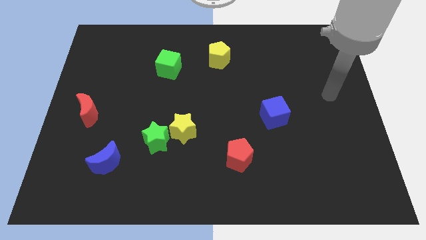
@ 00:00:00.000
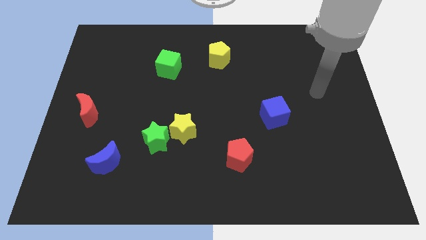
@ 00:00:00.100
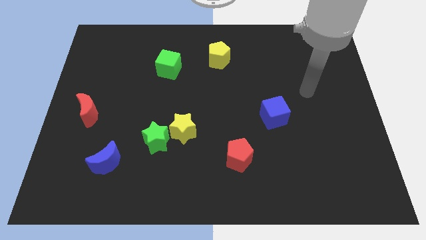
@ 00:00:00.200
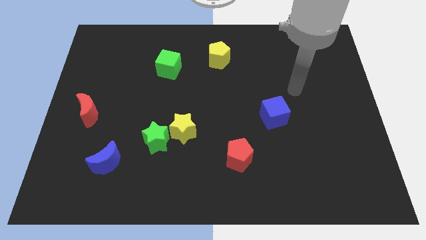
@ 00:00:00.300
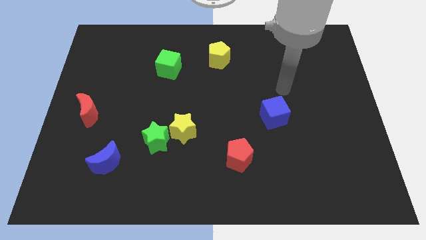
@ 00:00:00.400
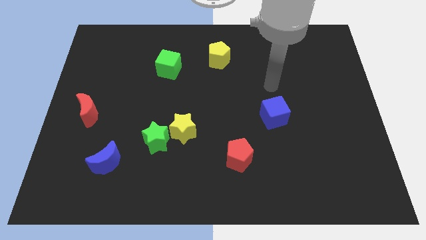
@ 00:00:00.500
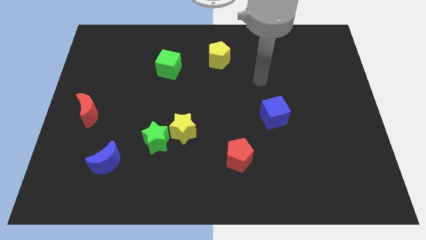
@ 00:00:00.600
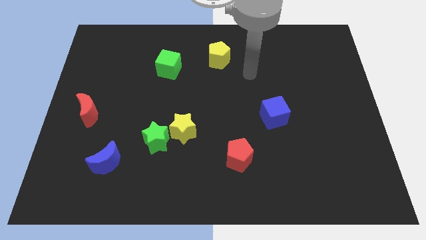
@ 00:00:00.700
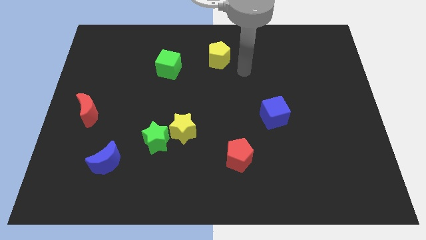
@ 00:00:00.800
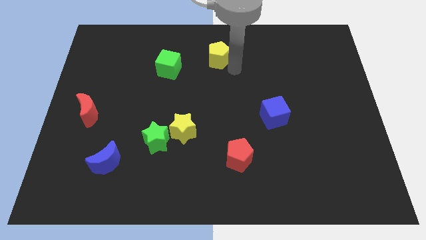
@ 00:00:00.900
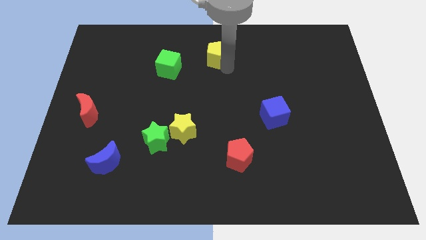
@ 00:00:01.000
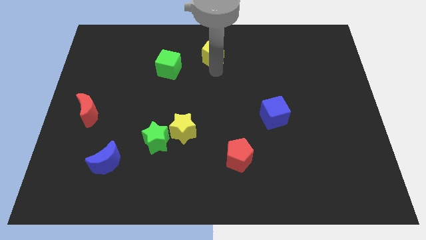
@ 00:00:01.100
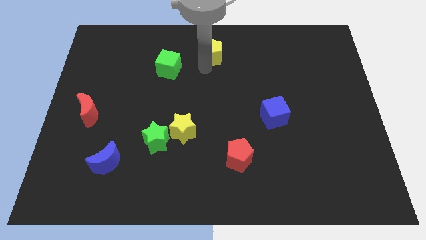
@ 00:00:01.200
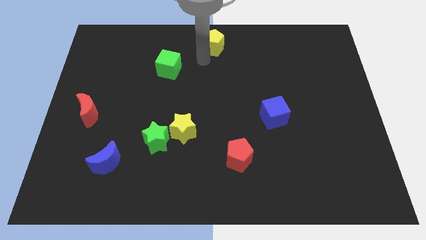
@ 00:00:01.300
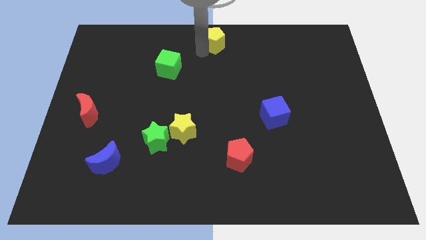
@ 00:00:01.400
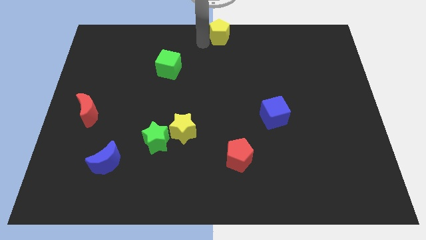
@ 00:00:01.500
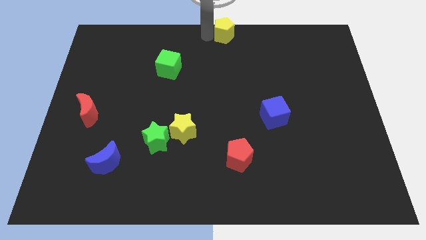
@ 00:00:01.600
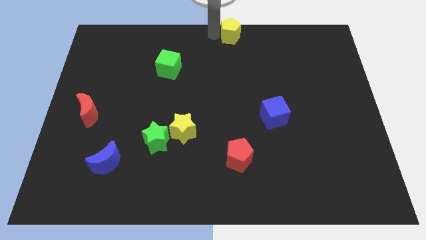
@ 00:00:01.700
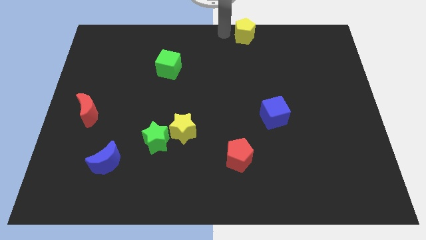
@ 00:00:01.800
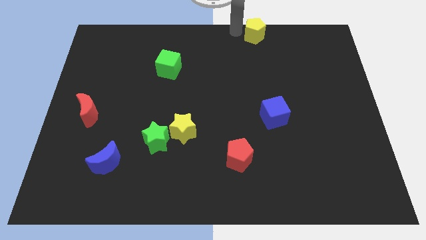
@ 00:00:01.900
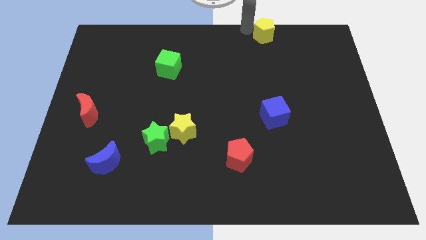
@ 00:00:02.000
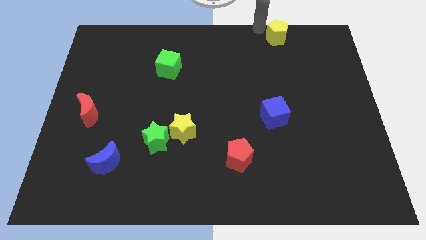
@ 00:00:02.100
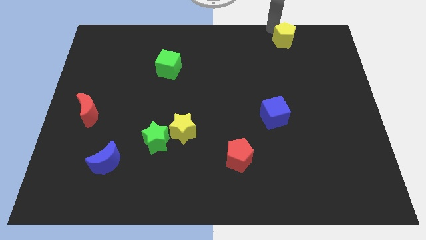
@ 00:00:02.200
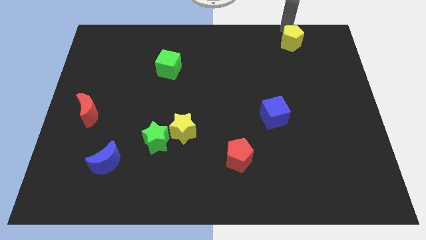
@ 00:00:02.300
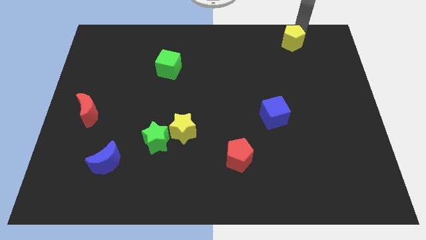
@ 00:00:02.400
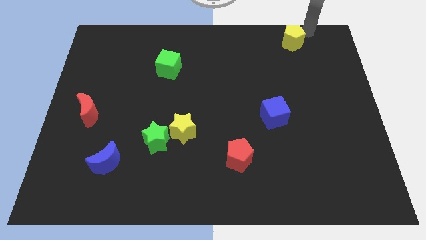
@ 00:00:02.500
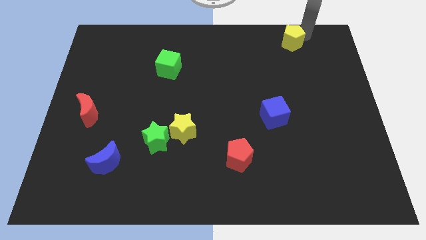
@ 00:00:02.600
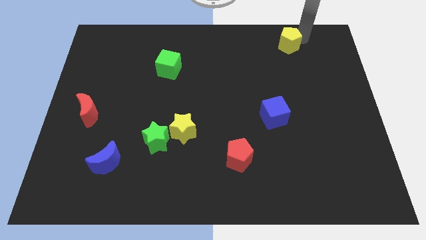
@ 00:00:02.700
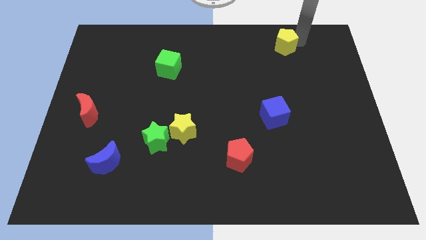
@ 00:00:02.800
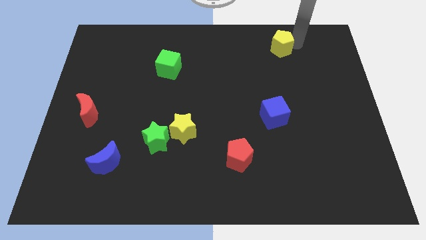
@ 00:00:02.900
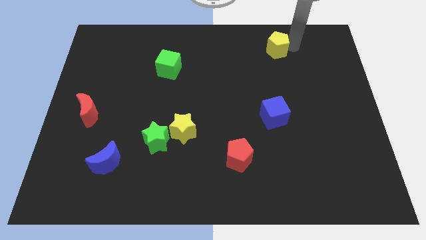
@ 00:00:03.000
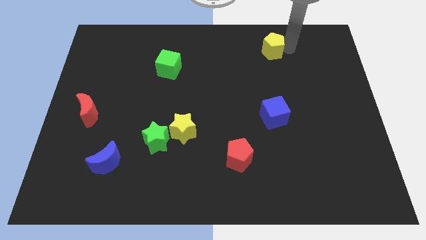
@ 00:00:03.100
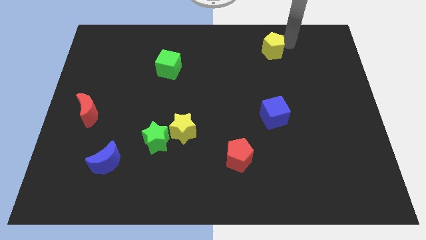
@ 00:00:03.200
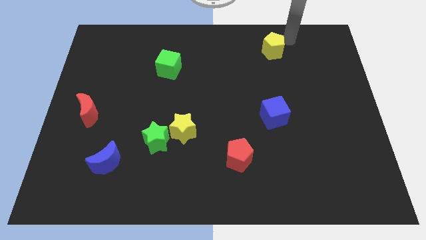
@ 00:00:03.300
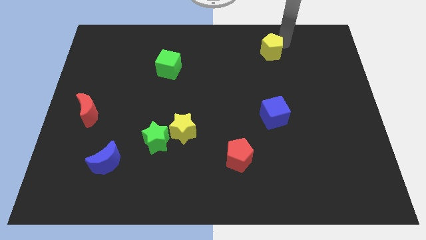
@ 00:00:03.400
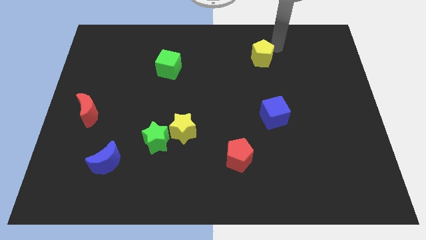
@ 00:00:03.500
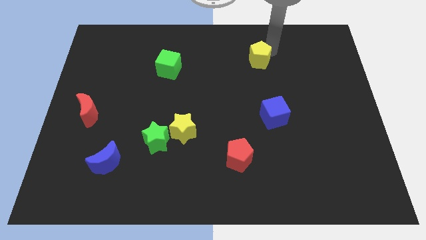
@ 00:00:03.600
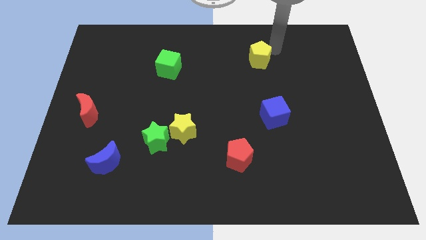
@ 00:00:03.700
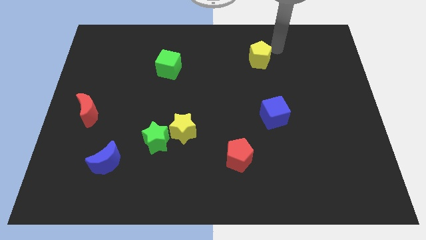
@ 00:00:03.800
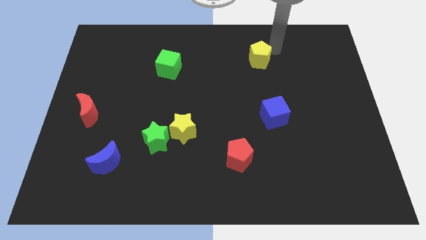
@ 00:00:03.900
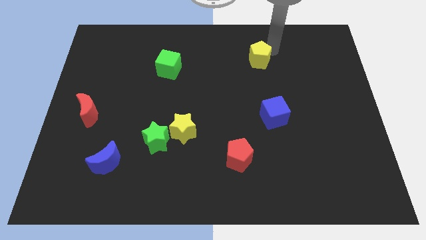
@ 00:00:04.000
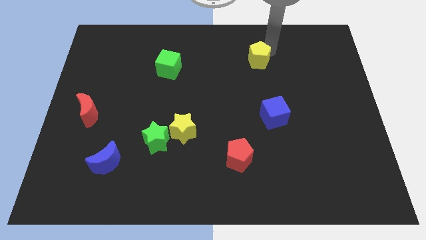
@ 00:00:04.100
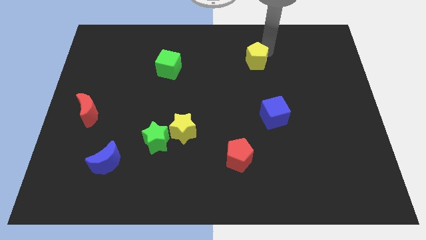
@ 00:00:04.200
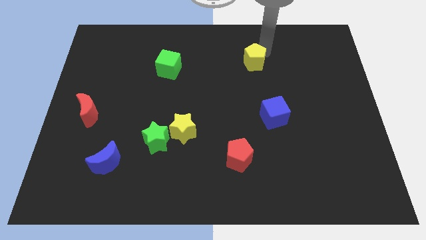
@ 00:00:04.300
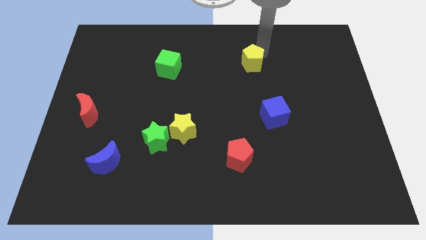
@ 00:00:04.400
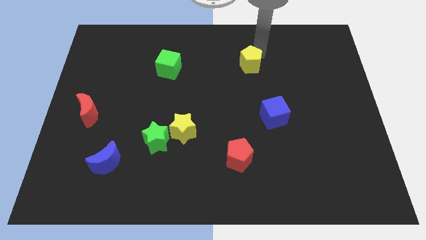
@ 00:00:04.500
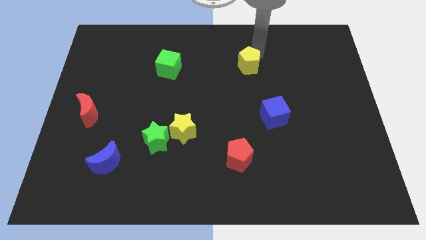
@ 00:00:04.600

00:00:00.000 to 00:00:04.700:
push the yellow pentagon diagonally down and to the right slightly

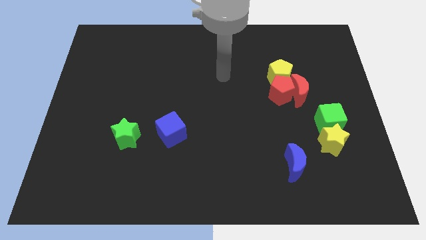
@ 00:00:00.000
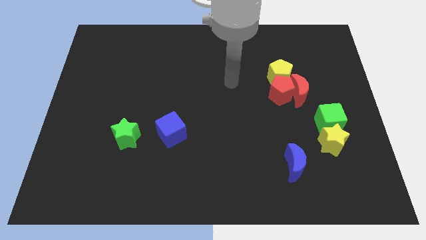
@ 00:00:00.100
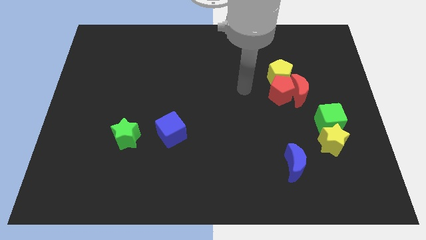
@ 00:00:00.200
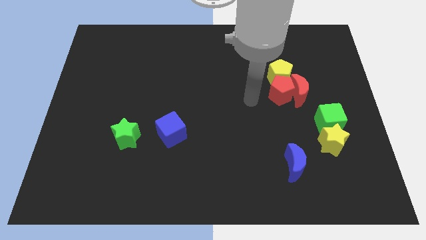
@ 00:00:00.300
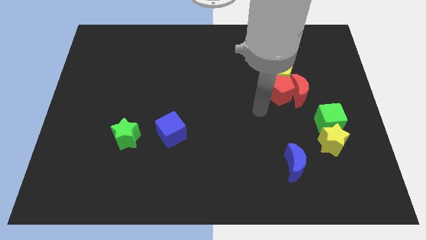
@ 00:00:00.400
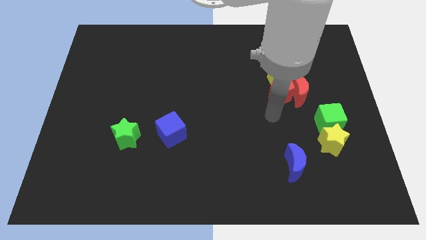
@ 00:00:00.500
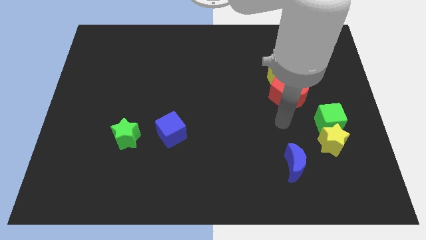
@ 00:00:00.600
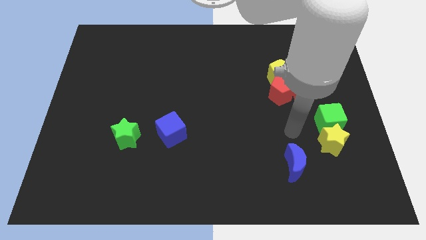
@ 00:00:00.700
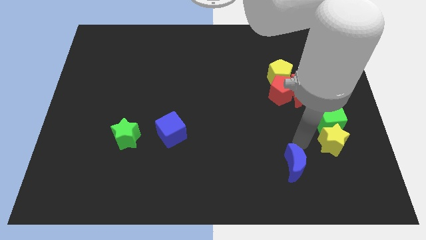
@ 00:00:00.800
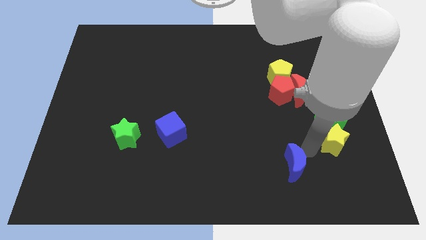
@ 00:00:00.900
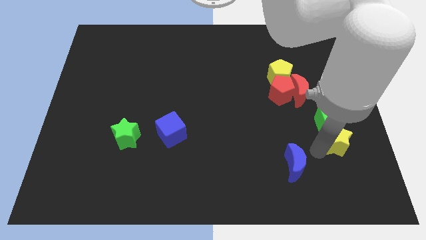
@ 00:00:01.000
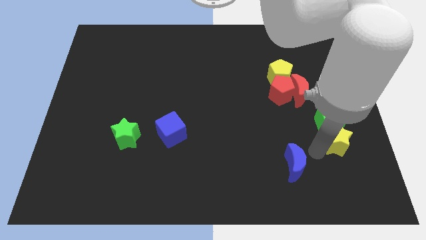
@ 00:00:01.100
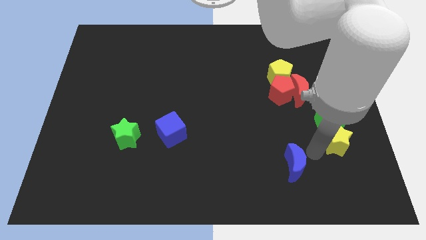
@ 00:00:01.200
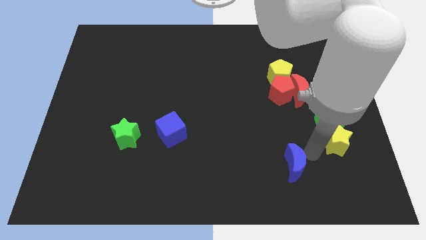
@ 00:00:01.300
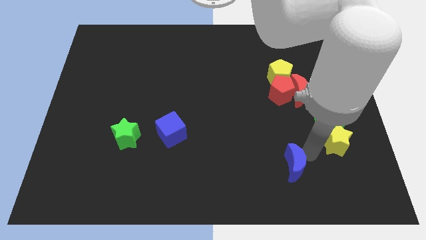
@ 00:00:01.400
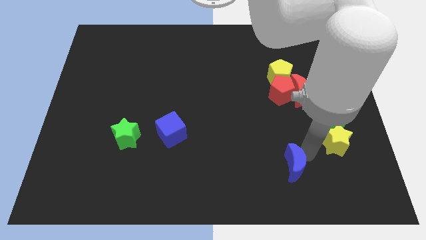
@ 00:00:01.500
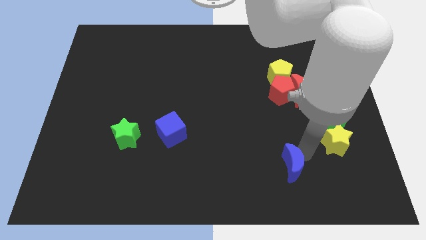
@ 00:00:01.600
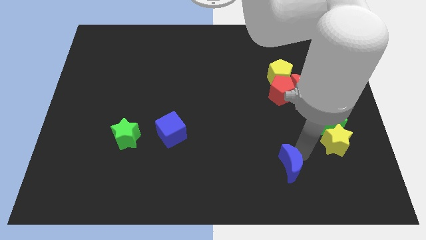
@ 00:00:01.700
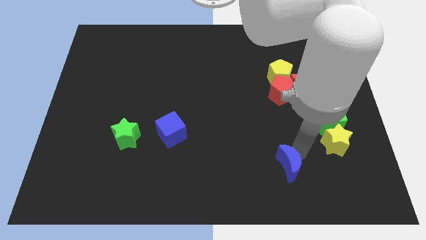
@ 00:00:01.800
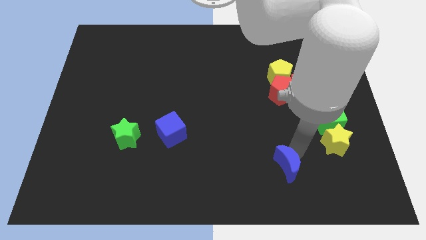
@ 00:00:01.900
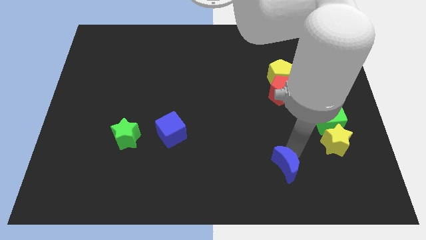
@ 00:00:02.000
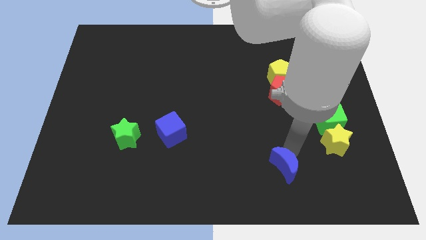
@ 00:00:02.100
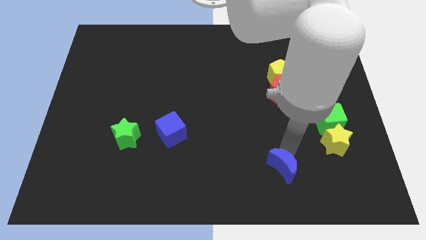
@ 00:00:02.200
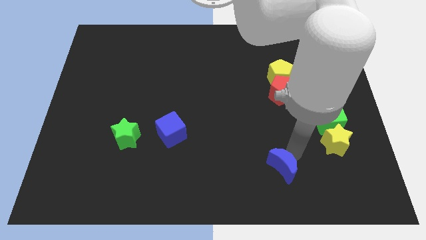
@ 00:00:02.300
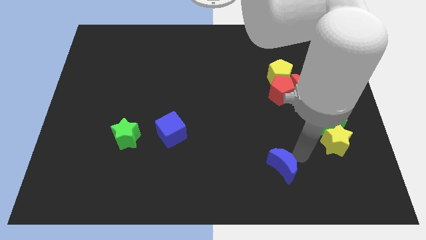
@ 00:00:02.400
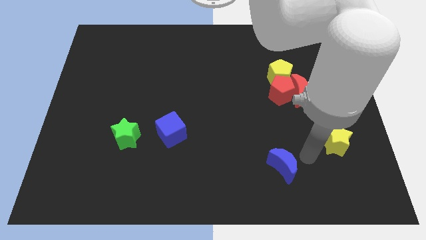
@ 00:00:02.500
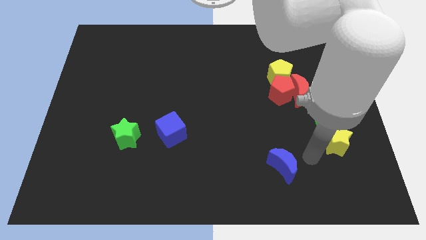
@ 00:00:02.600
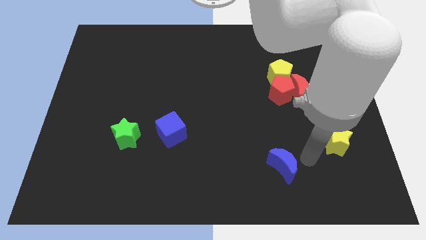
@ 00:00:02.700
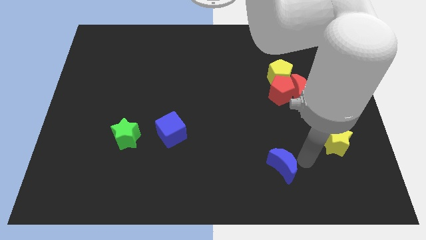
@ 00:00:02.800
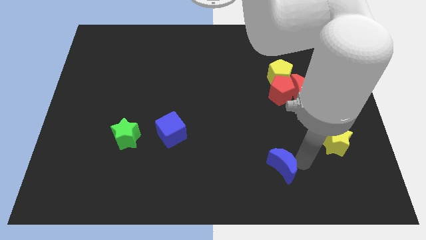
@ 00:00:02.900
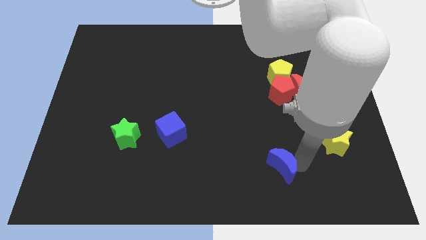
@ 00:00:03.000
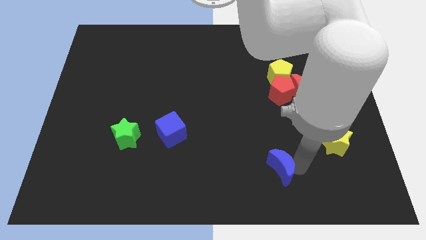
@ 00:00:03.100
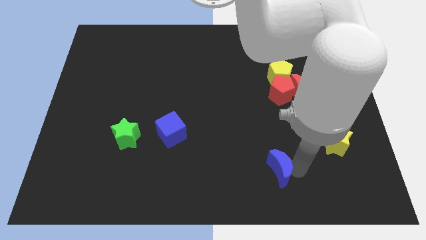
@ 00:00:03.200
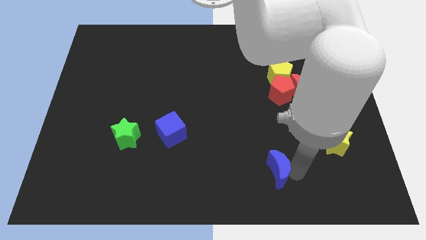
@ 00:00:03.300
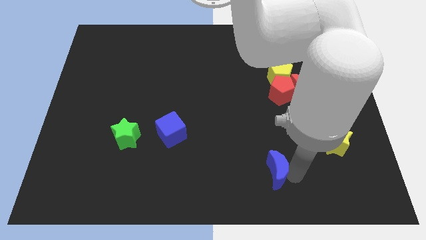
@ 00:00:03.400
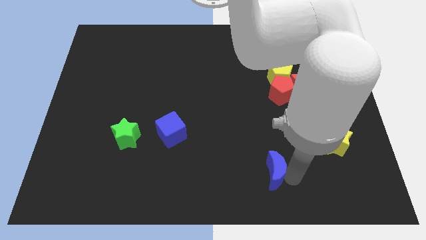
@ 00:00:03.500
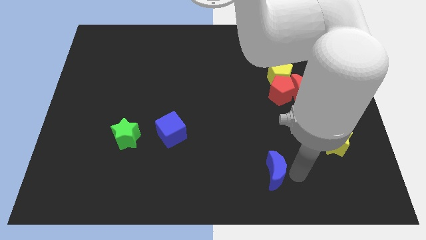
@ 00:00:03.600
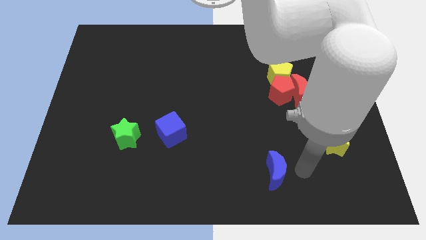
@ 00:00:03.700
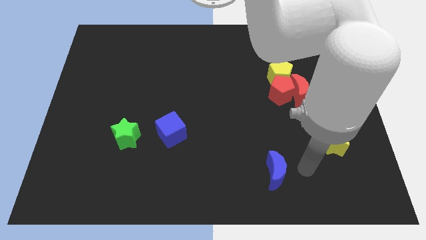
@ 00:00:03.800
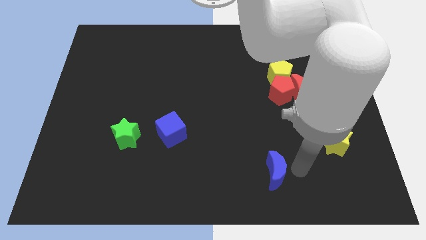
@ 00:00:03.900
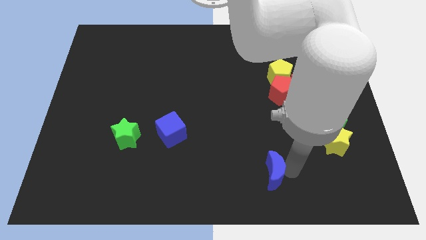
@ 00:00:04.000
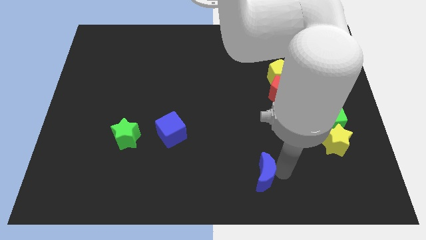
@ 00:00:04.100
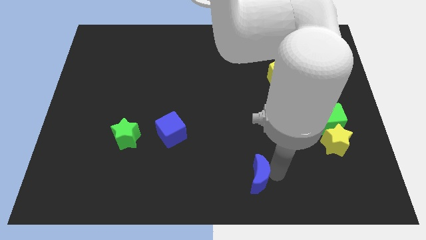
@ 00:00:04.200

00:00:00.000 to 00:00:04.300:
move the blue moon left somewhat
